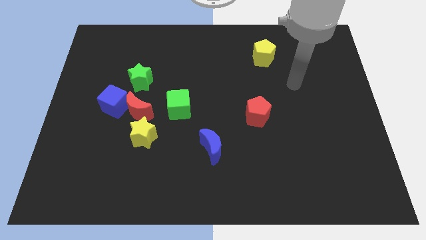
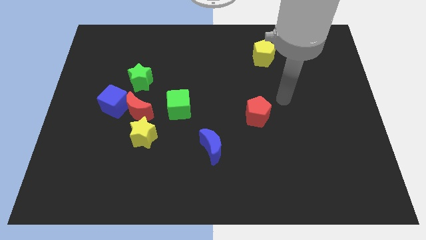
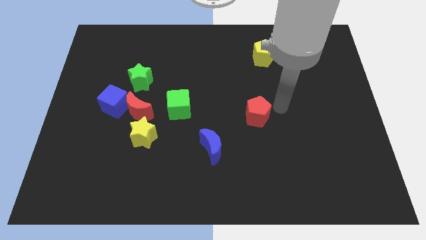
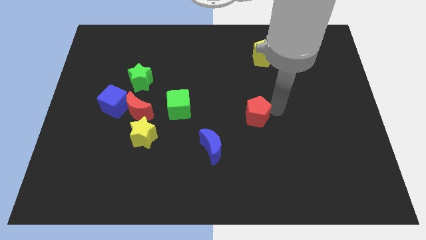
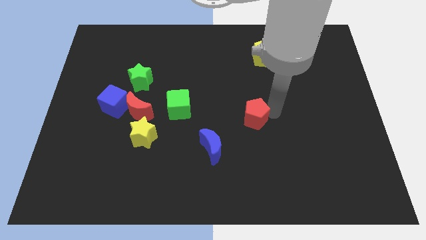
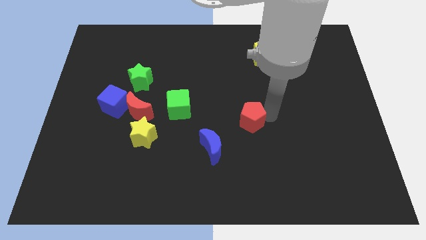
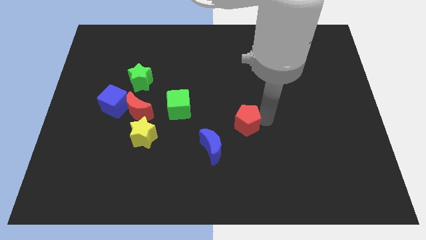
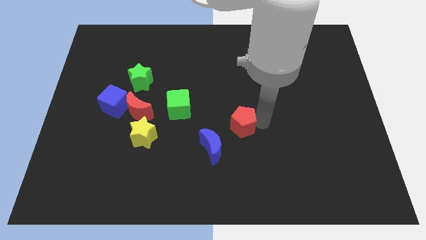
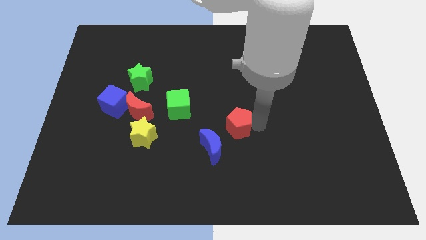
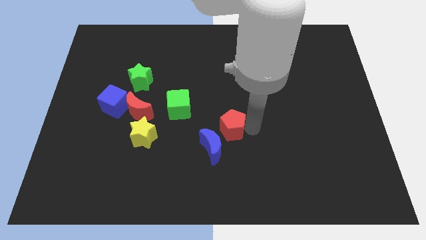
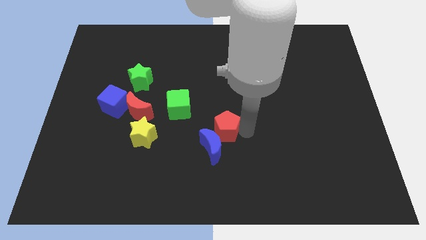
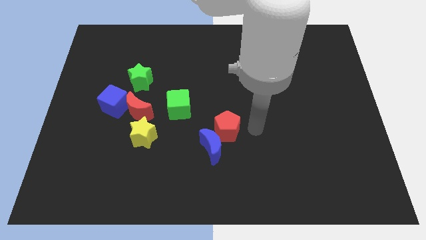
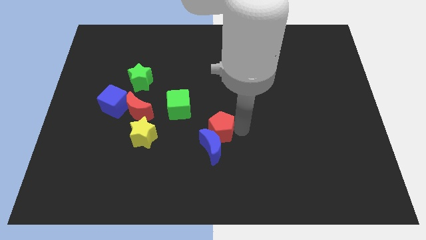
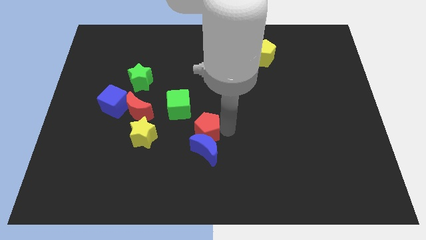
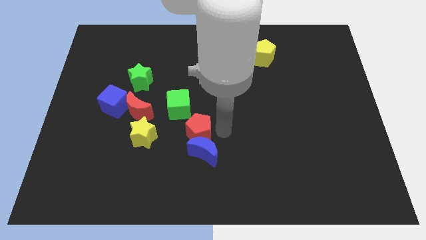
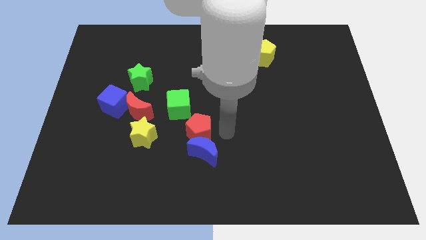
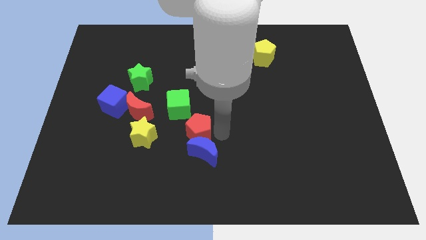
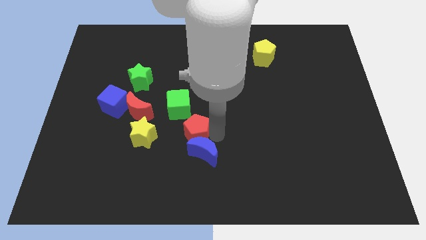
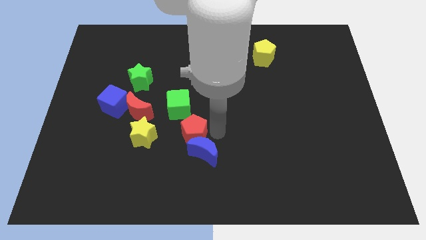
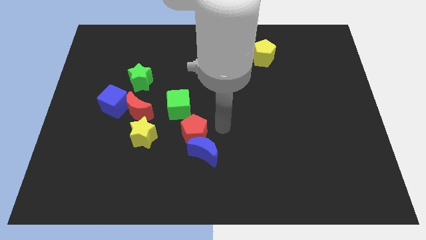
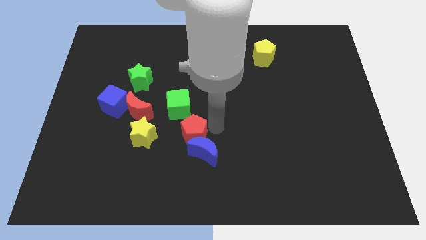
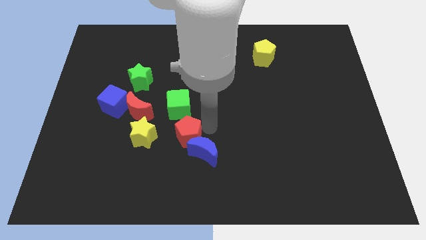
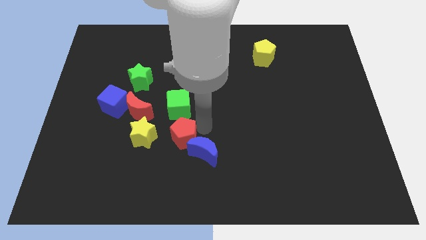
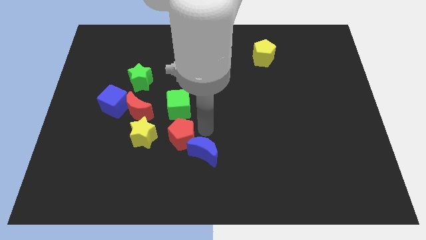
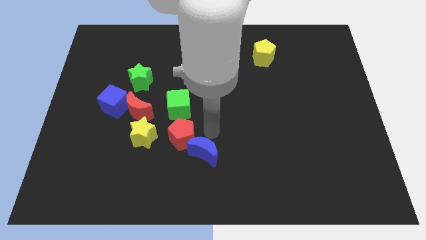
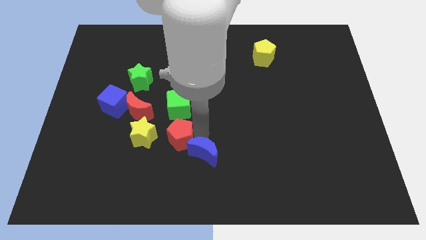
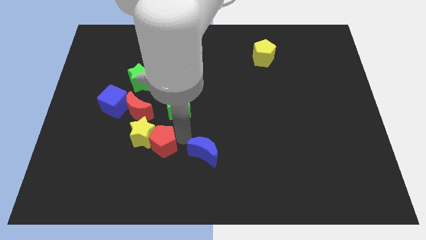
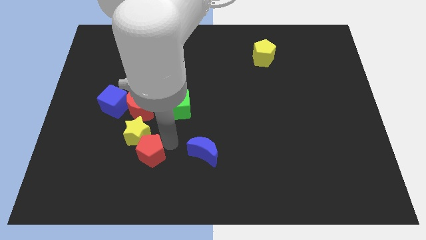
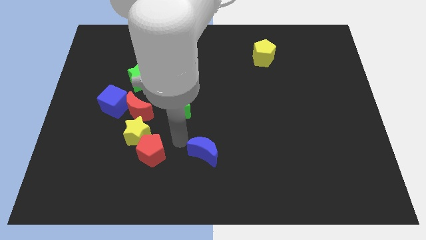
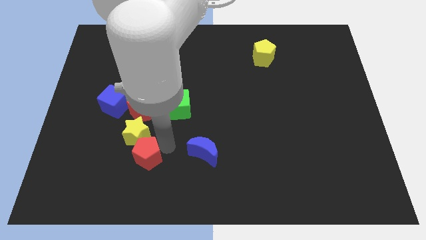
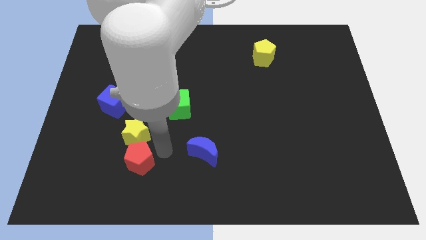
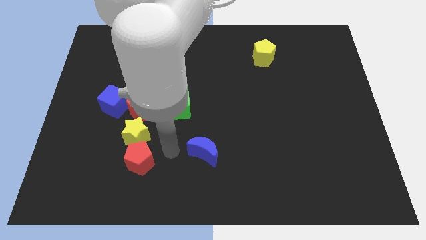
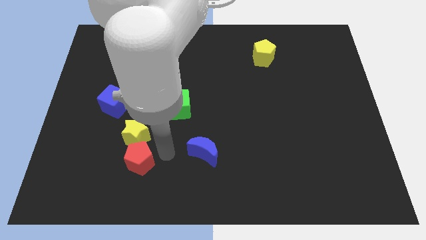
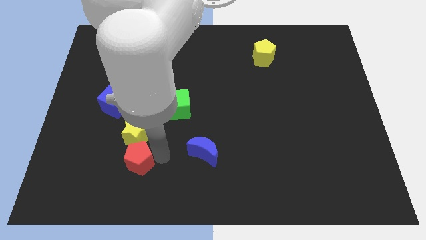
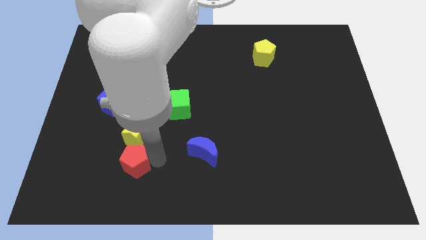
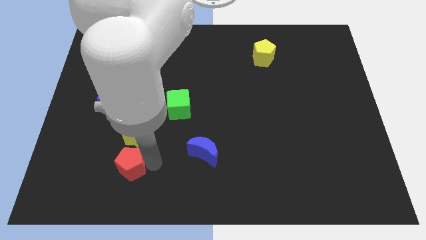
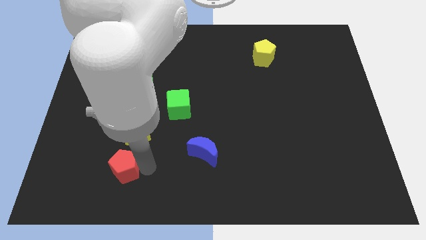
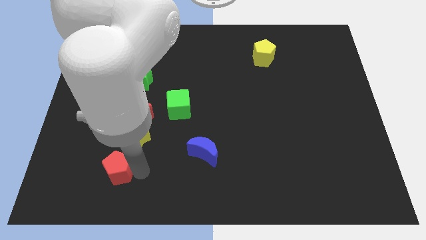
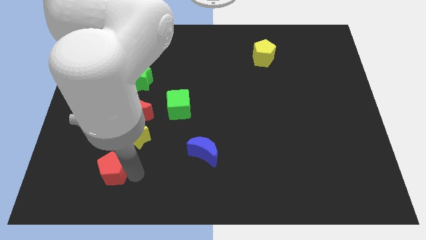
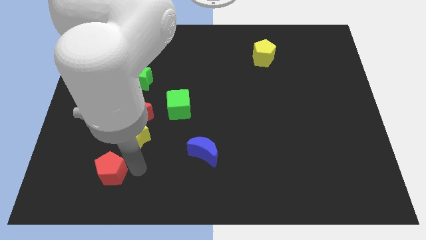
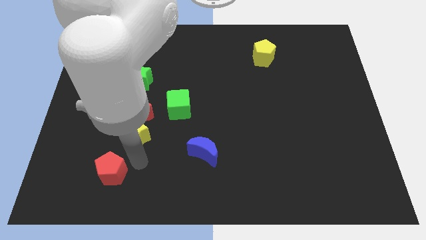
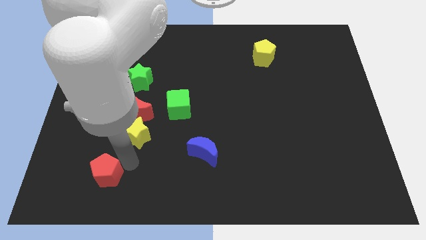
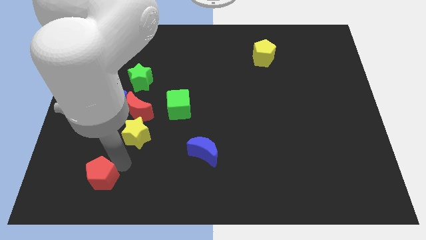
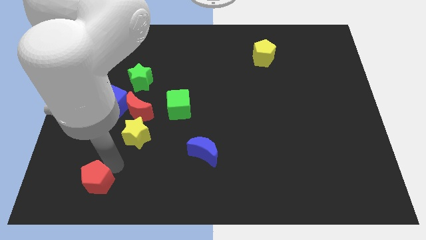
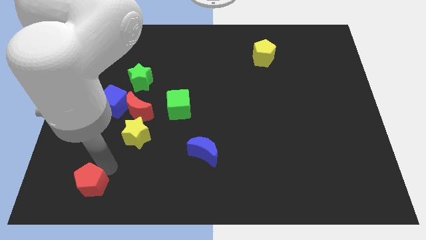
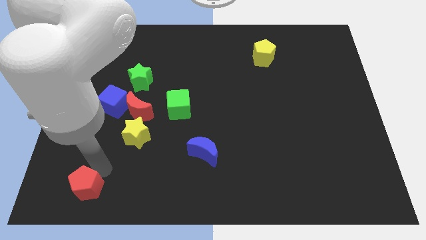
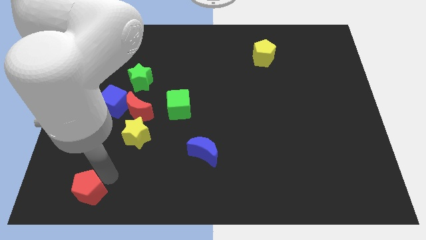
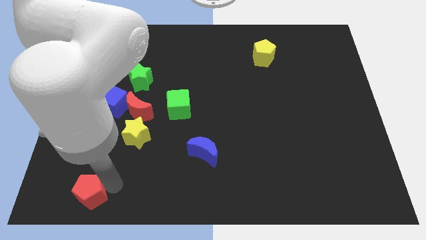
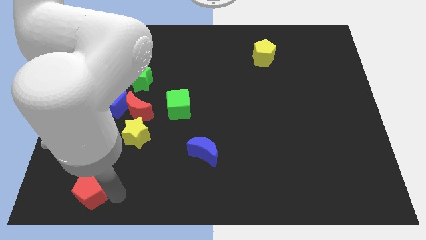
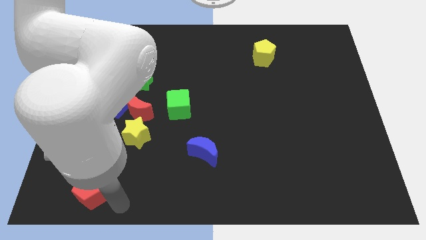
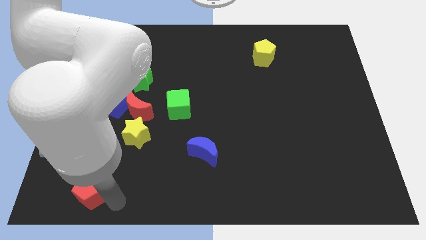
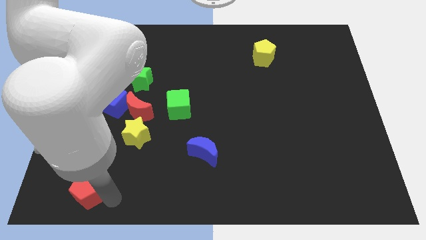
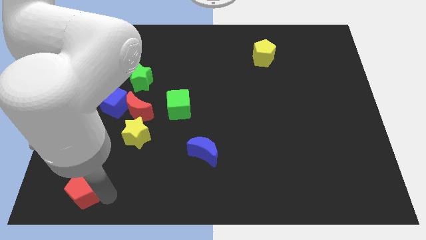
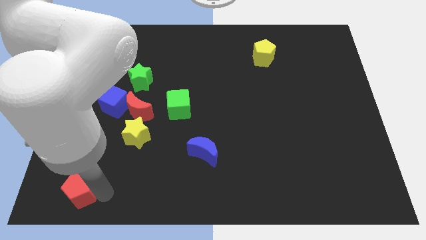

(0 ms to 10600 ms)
put the red pentagon to the lower left corner

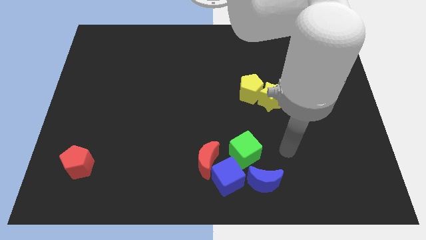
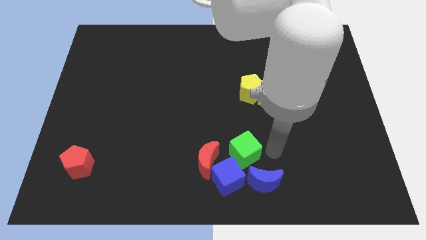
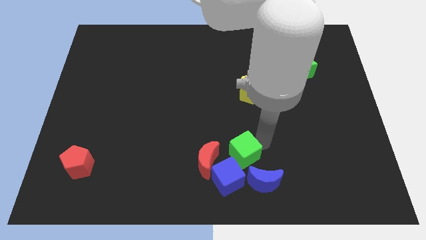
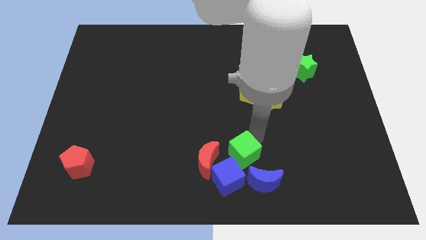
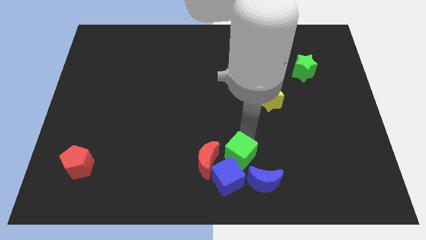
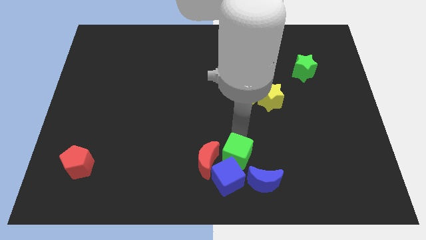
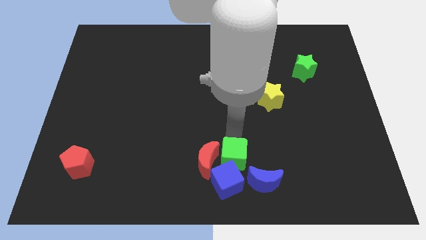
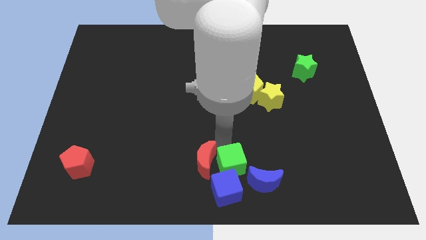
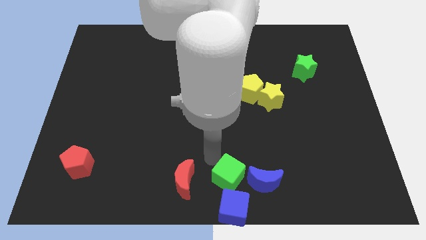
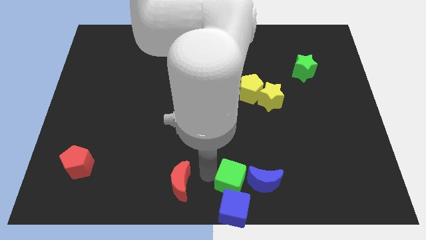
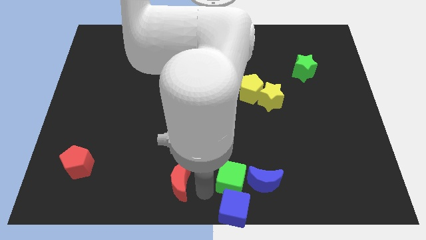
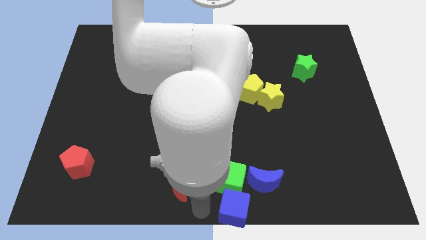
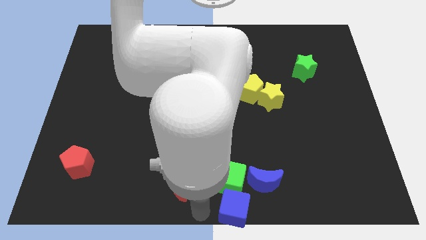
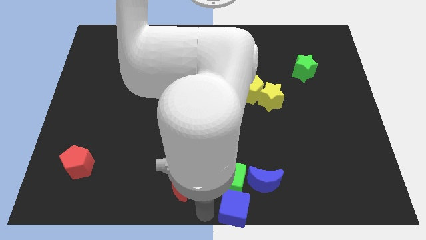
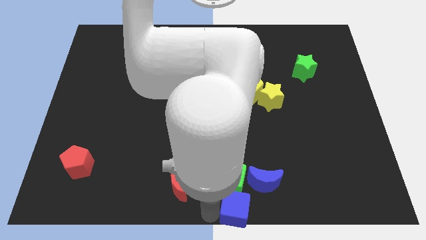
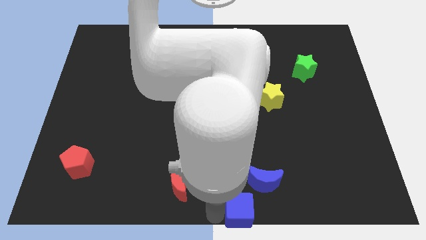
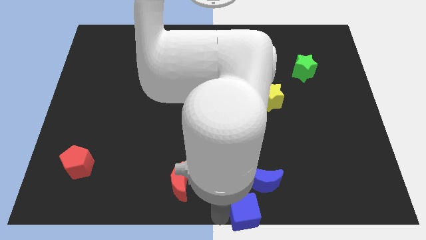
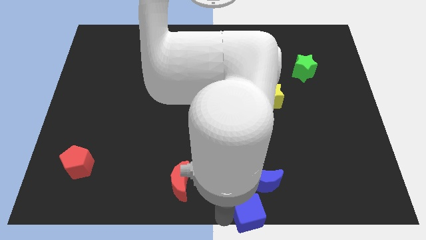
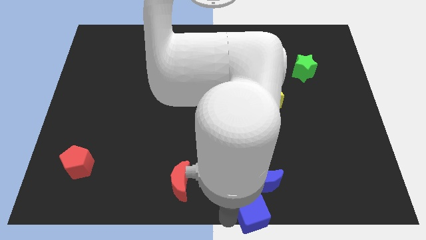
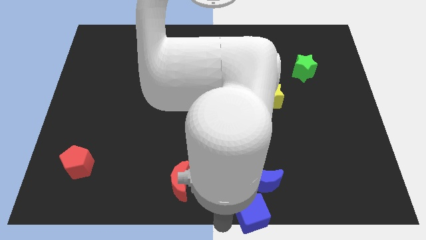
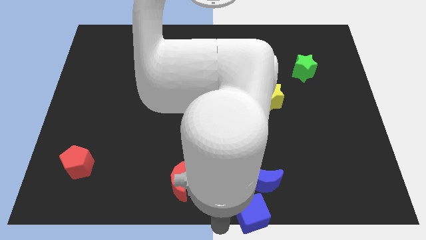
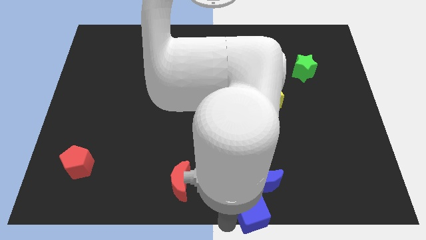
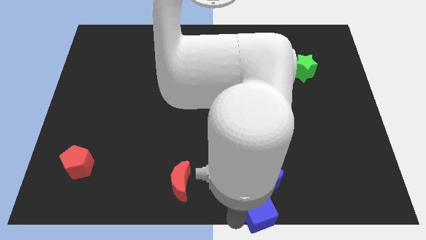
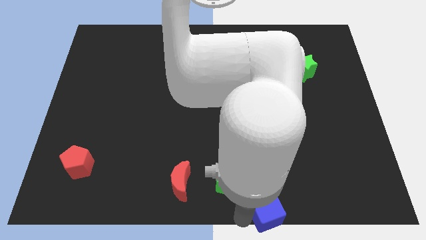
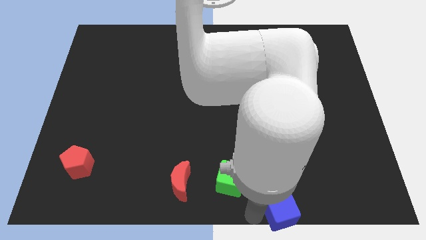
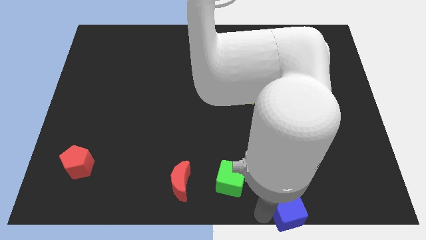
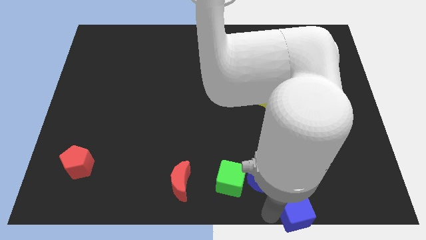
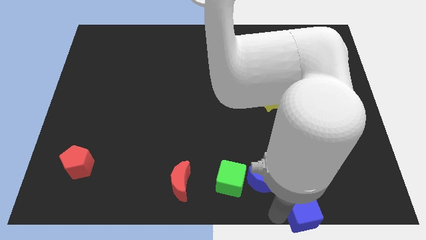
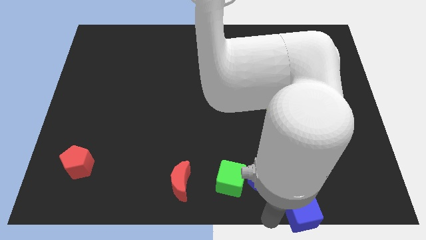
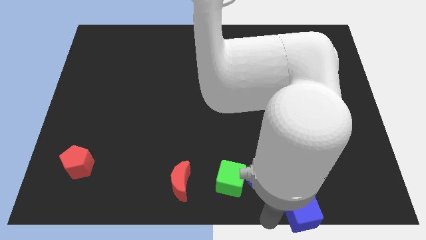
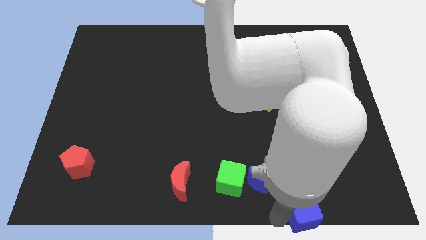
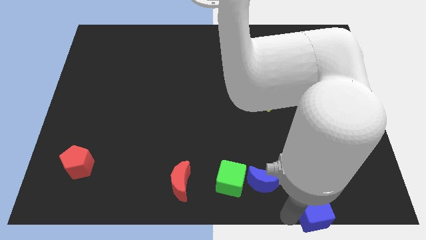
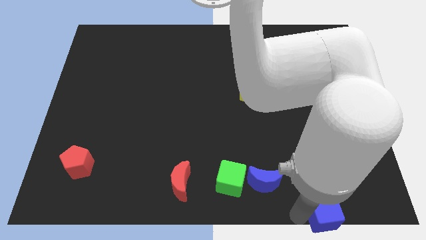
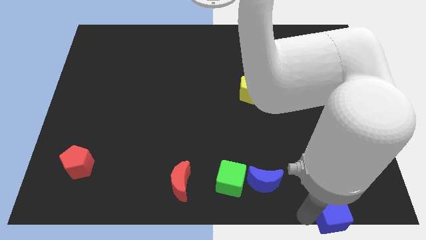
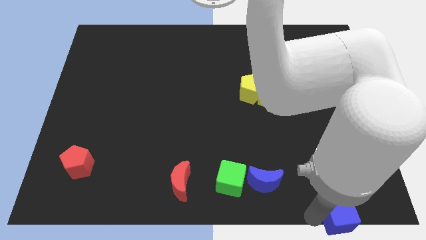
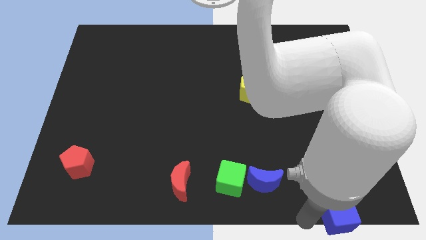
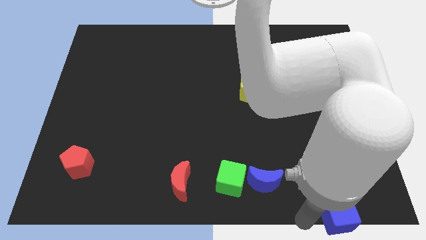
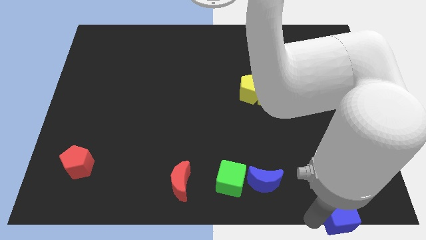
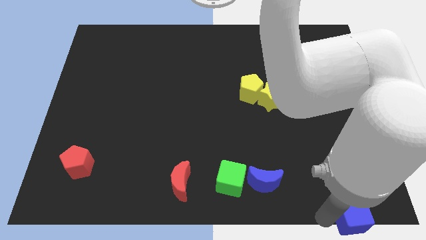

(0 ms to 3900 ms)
move the blue cube to the bottom right
